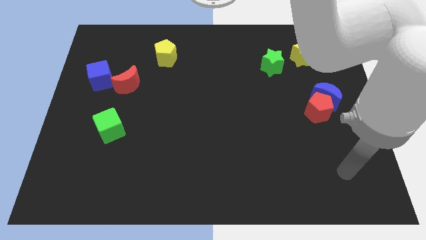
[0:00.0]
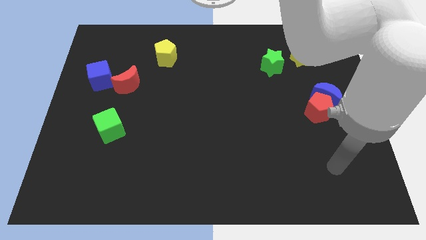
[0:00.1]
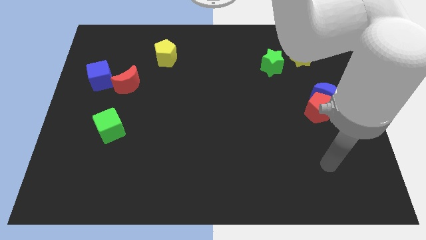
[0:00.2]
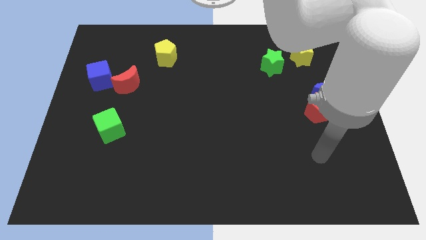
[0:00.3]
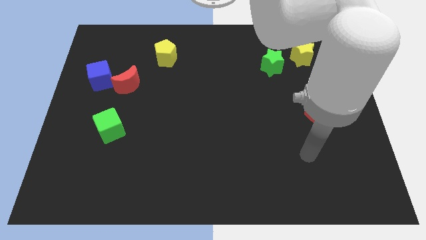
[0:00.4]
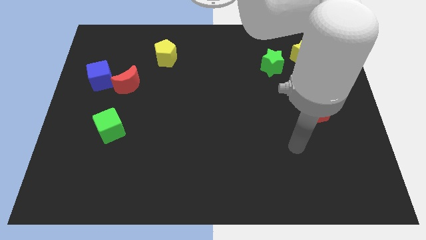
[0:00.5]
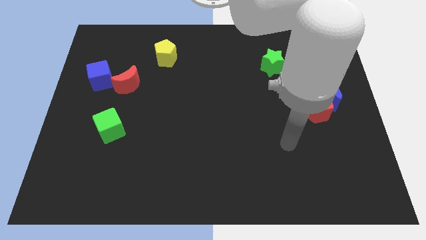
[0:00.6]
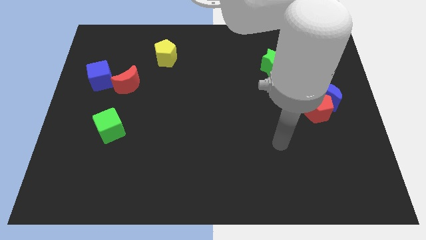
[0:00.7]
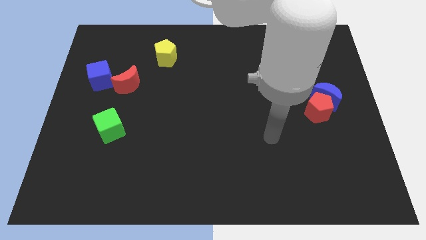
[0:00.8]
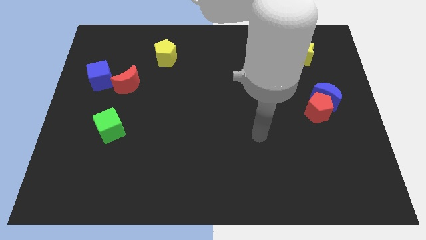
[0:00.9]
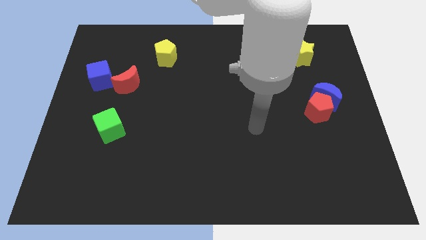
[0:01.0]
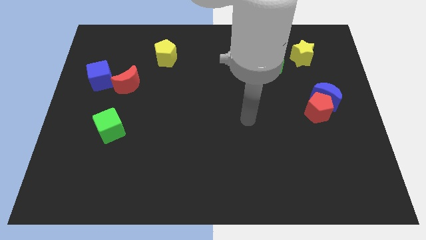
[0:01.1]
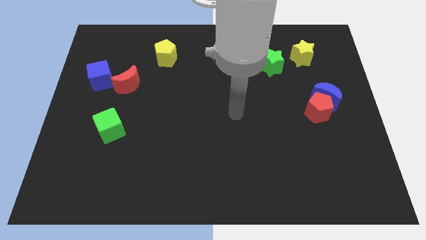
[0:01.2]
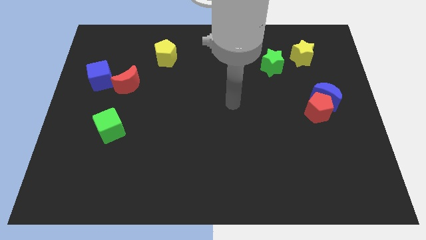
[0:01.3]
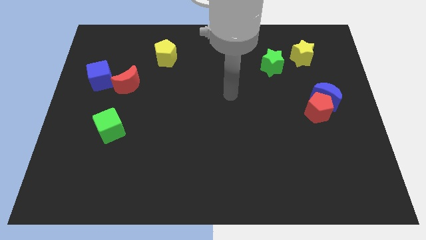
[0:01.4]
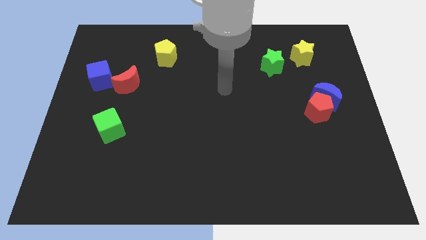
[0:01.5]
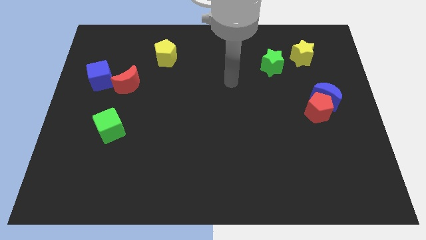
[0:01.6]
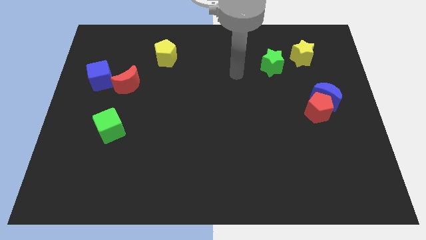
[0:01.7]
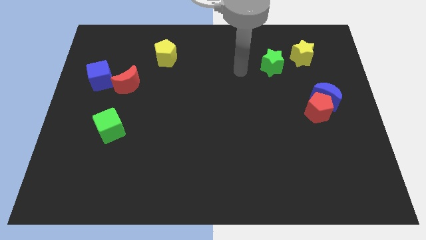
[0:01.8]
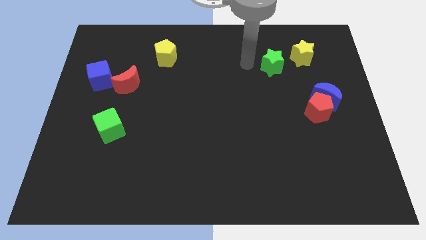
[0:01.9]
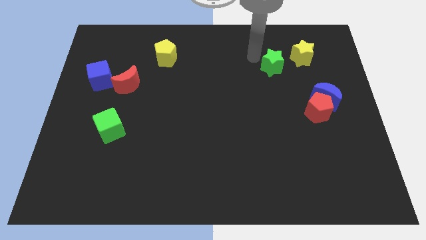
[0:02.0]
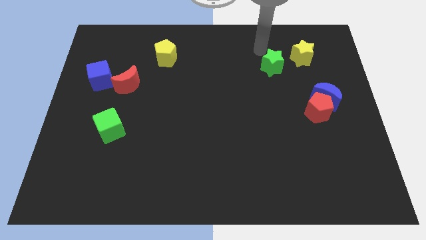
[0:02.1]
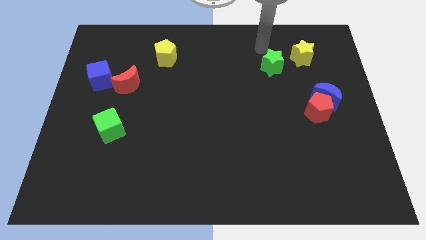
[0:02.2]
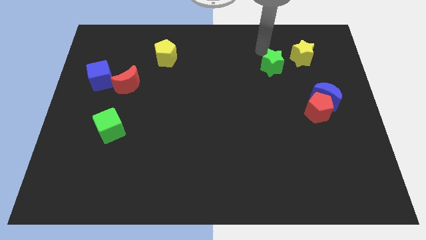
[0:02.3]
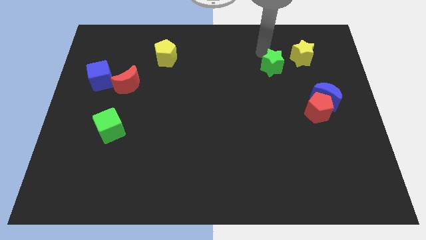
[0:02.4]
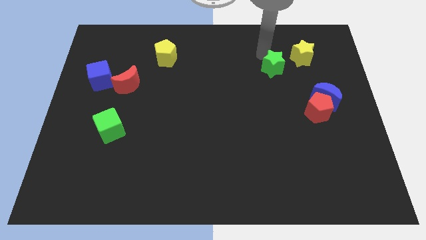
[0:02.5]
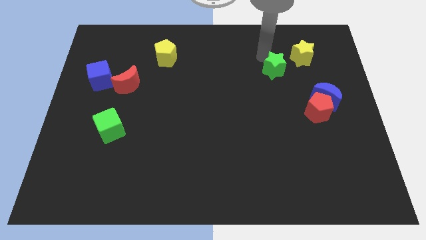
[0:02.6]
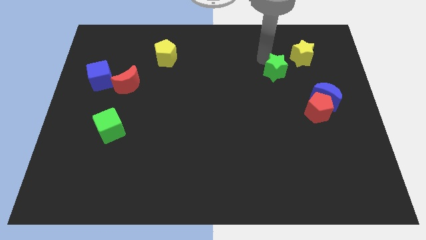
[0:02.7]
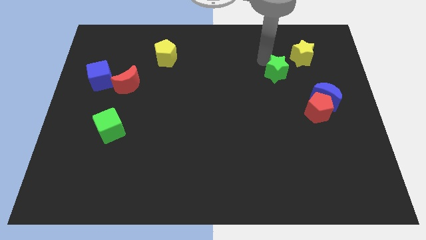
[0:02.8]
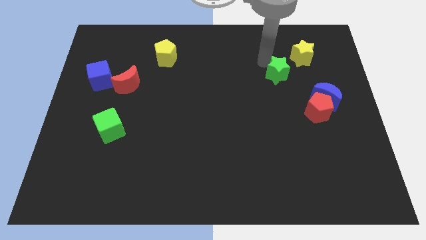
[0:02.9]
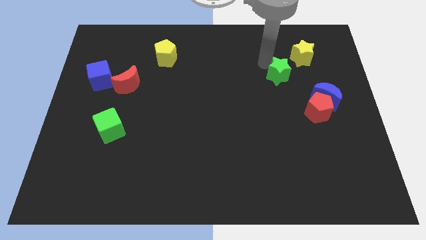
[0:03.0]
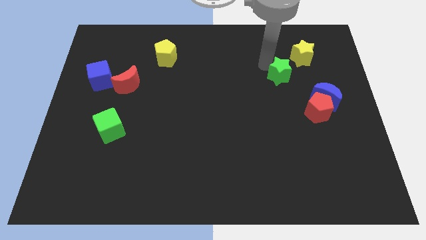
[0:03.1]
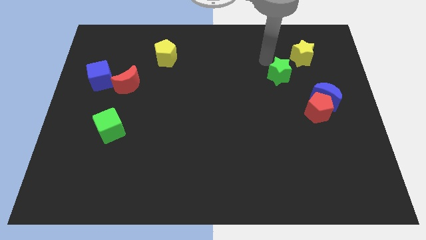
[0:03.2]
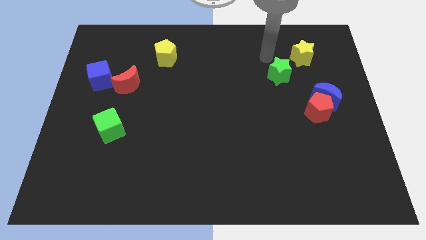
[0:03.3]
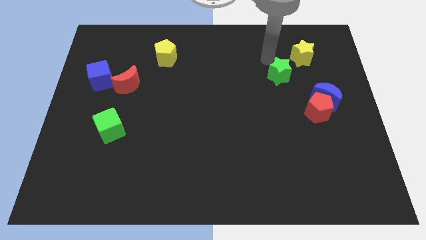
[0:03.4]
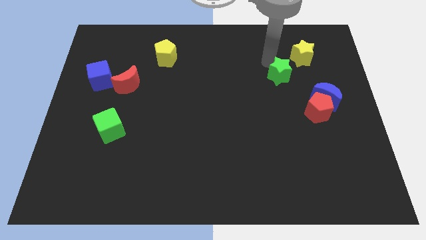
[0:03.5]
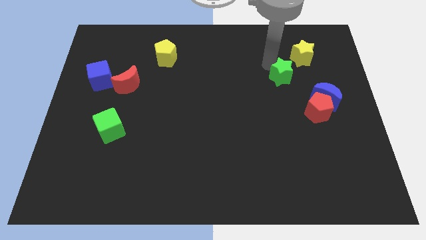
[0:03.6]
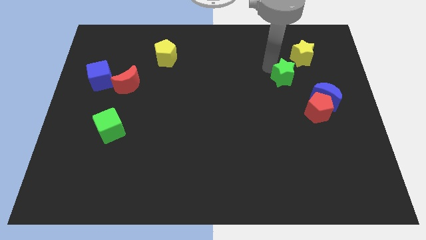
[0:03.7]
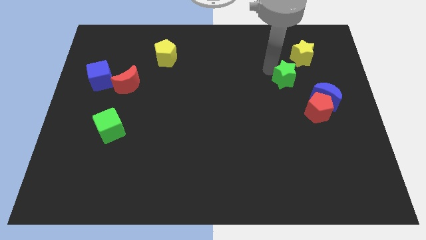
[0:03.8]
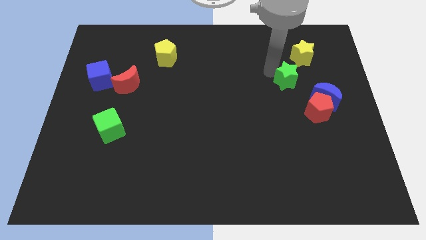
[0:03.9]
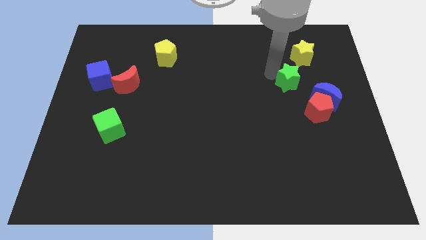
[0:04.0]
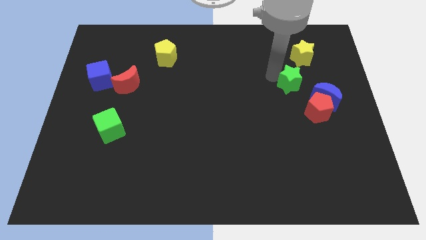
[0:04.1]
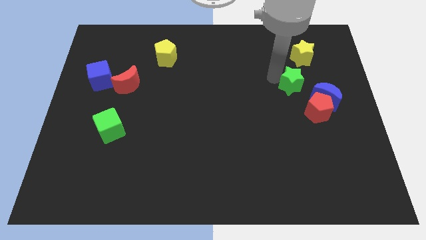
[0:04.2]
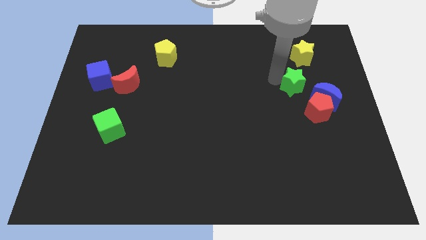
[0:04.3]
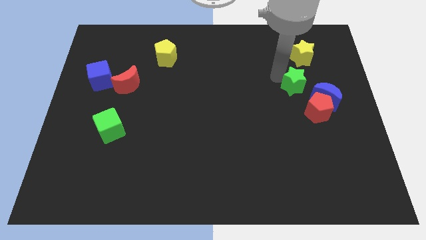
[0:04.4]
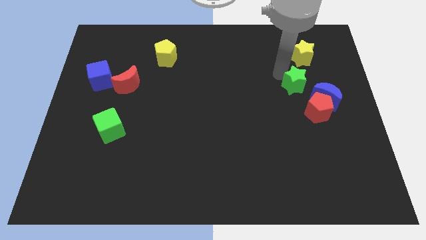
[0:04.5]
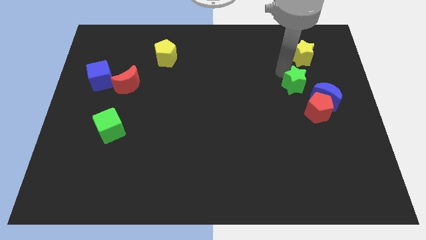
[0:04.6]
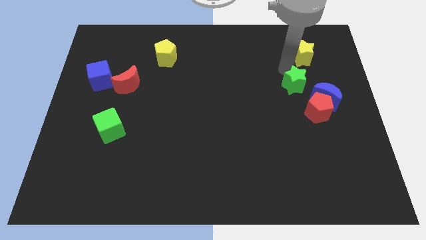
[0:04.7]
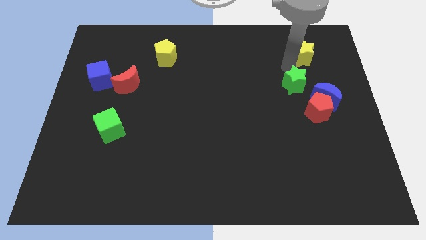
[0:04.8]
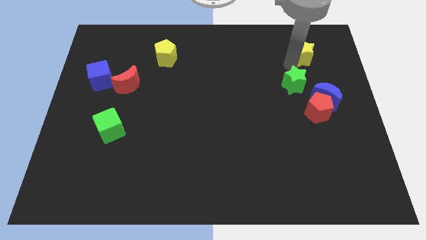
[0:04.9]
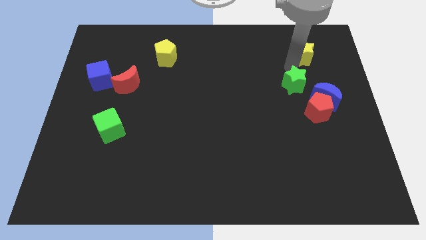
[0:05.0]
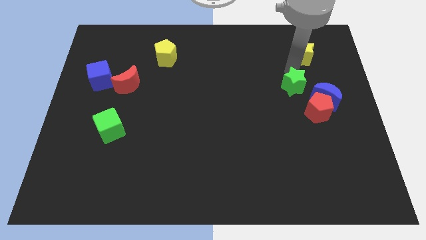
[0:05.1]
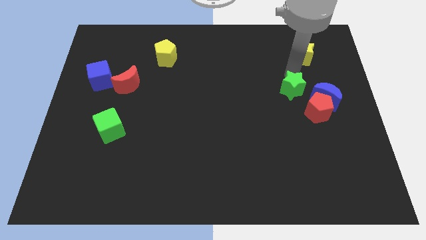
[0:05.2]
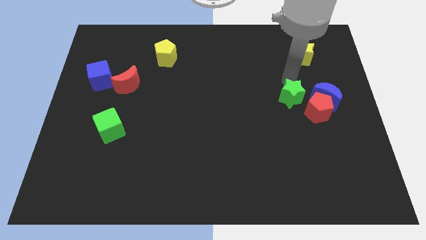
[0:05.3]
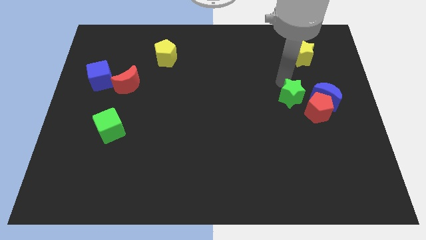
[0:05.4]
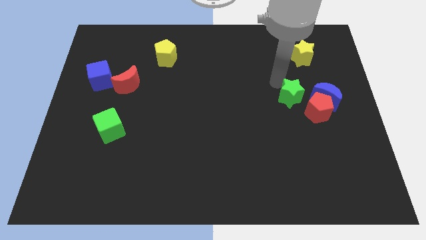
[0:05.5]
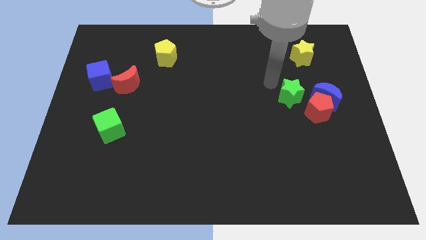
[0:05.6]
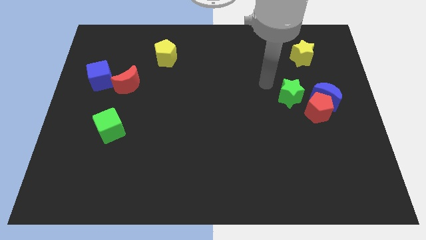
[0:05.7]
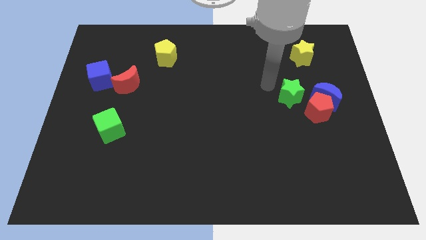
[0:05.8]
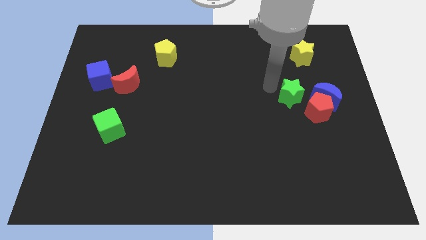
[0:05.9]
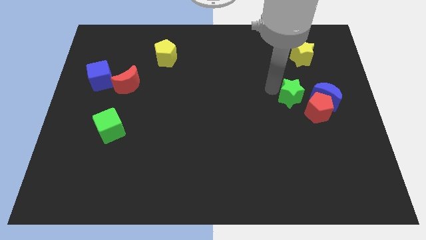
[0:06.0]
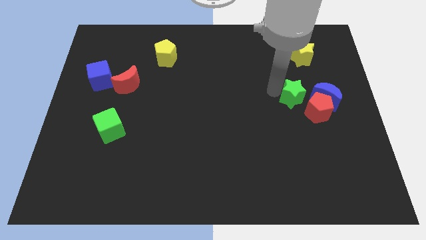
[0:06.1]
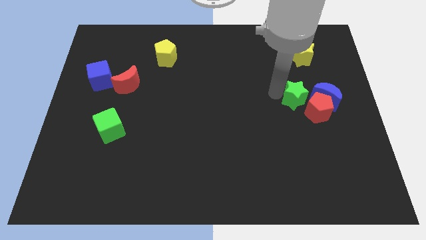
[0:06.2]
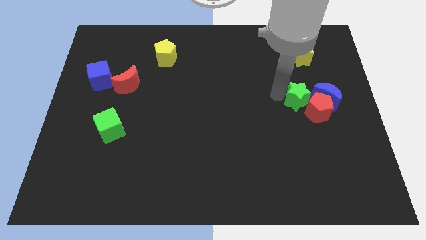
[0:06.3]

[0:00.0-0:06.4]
move the green star to the red pentagon
